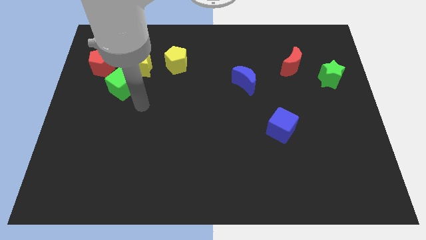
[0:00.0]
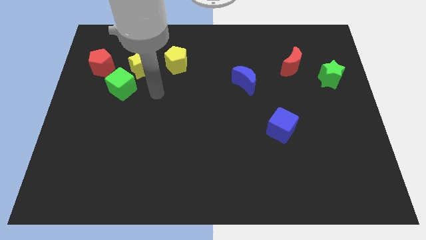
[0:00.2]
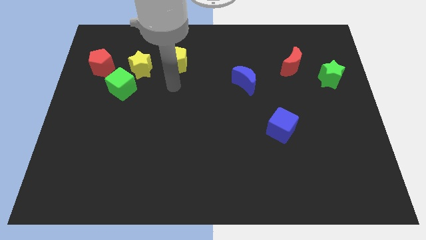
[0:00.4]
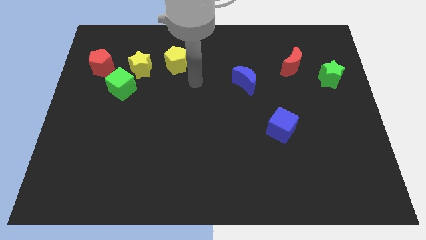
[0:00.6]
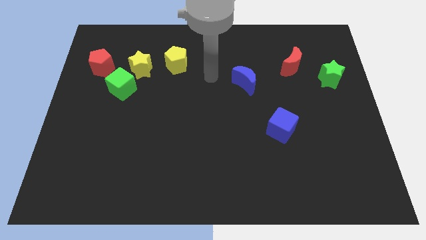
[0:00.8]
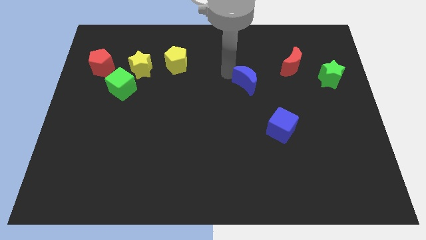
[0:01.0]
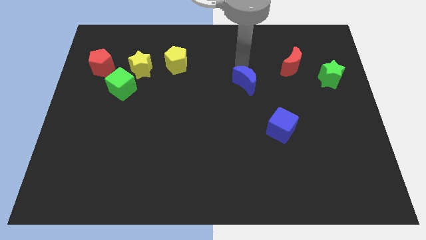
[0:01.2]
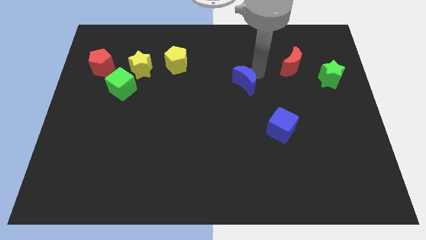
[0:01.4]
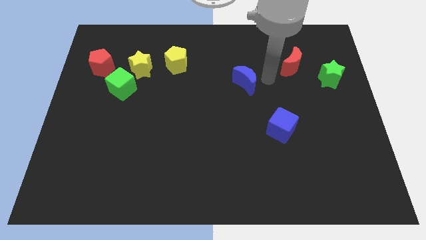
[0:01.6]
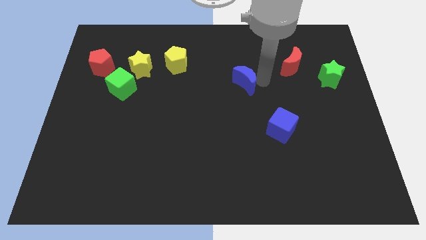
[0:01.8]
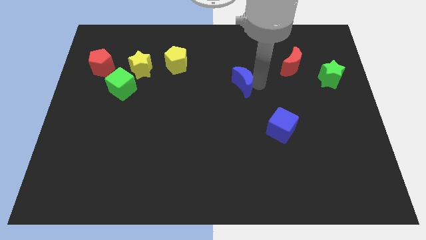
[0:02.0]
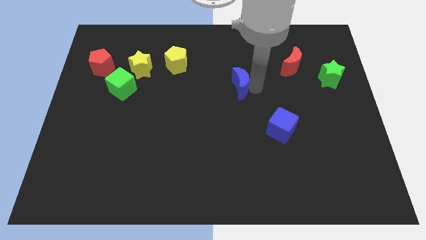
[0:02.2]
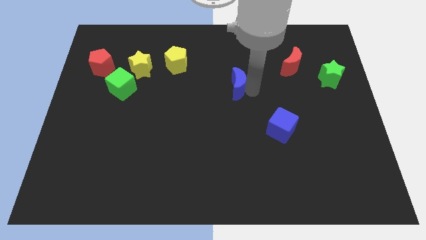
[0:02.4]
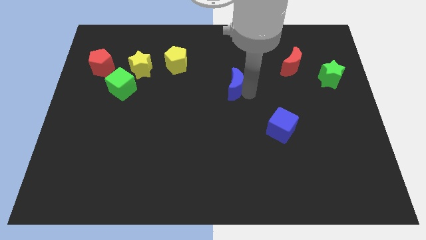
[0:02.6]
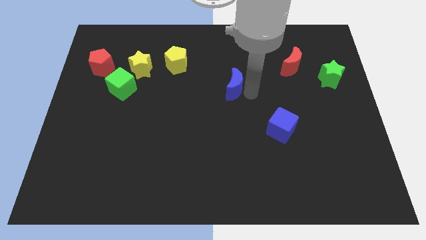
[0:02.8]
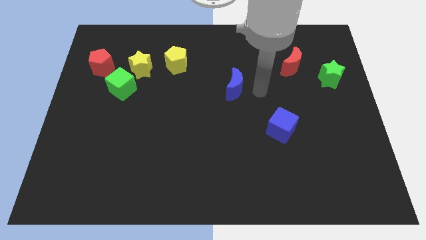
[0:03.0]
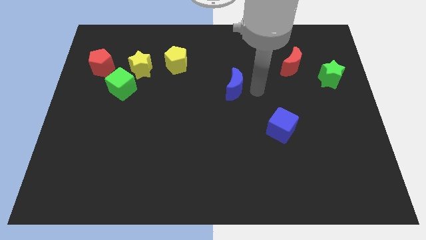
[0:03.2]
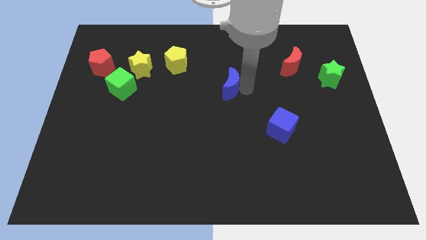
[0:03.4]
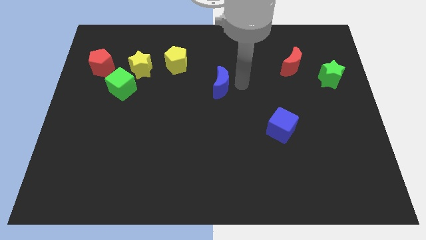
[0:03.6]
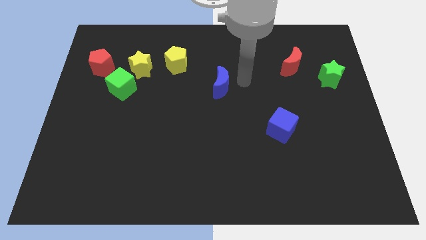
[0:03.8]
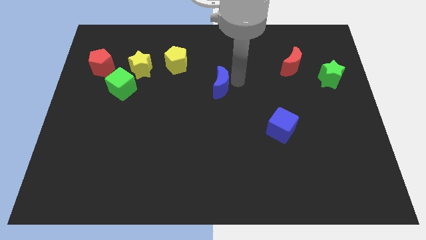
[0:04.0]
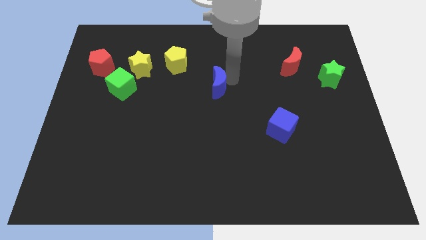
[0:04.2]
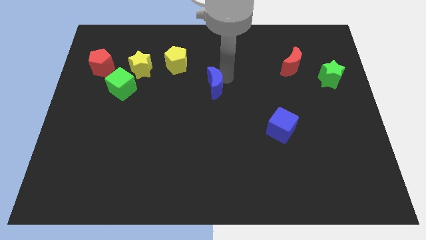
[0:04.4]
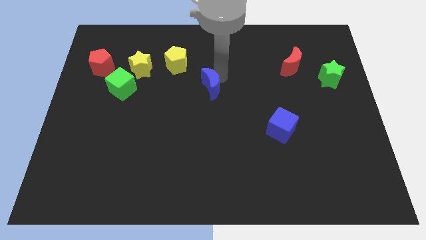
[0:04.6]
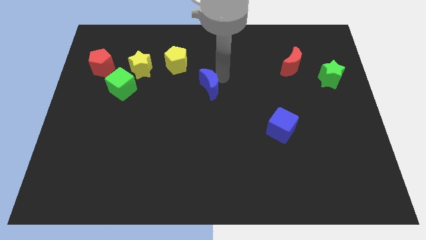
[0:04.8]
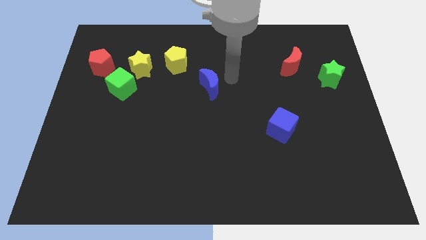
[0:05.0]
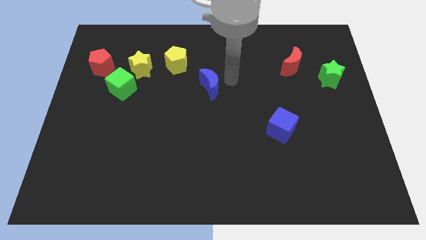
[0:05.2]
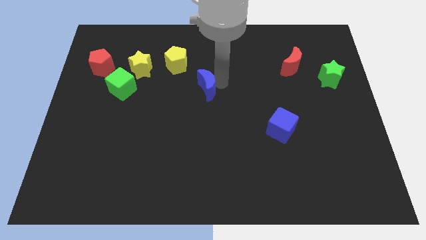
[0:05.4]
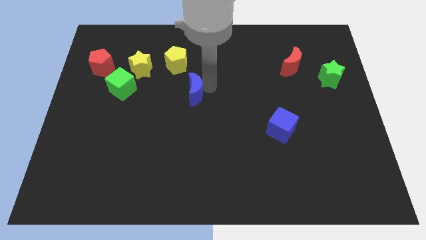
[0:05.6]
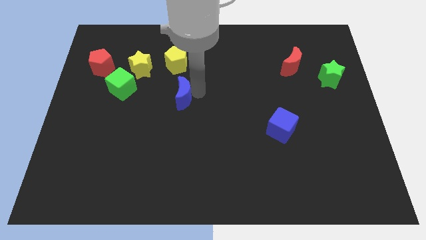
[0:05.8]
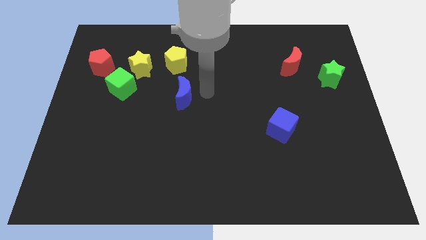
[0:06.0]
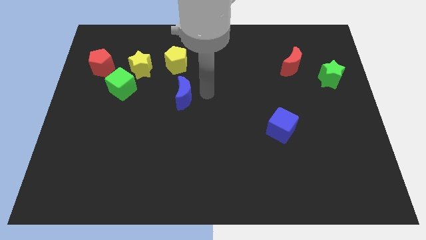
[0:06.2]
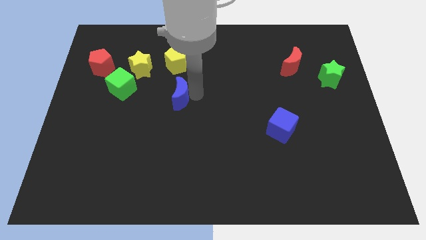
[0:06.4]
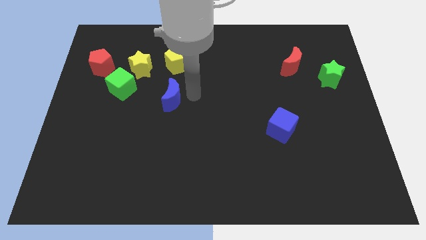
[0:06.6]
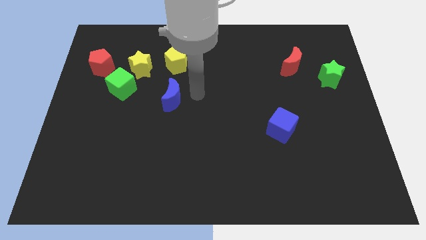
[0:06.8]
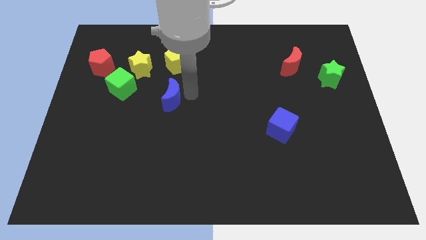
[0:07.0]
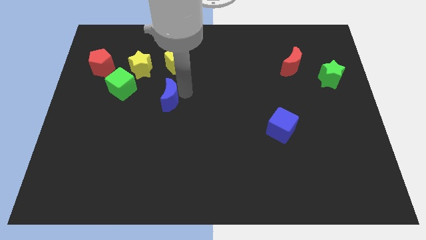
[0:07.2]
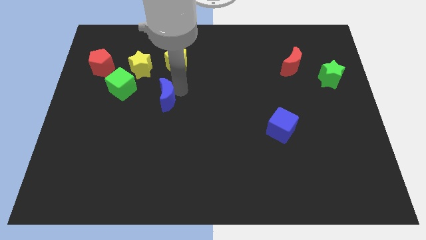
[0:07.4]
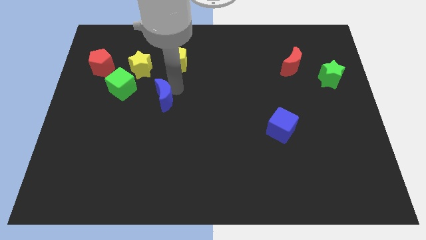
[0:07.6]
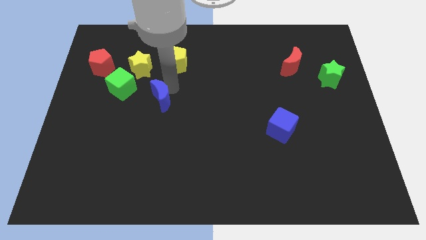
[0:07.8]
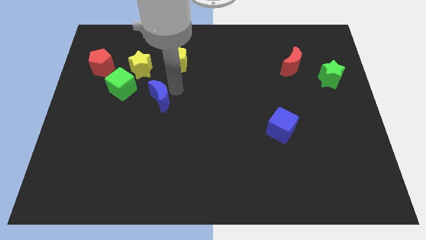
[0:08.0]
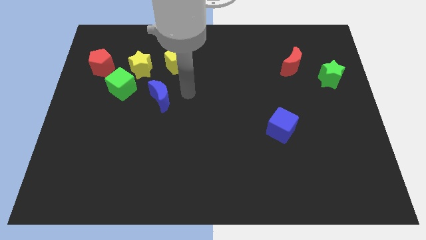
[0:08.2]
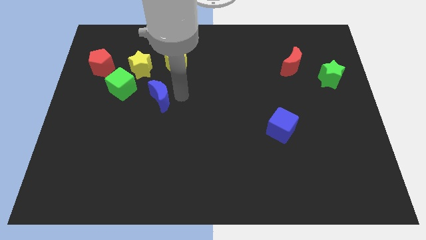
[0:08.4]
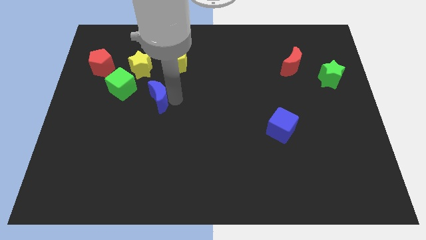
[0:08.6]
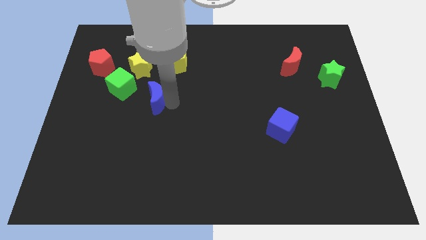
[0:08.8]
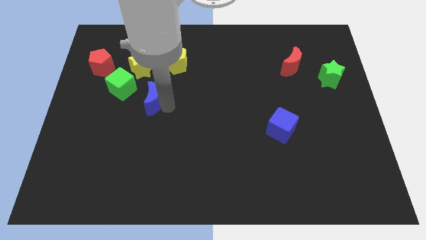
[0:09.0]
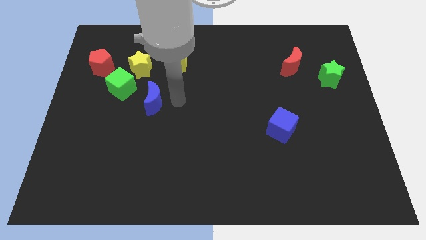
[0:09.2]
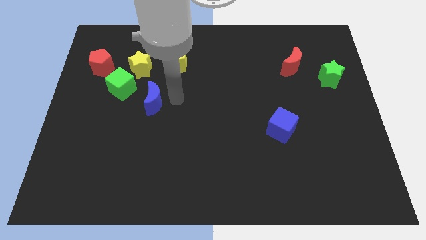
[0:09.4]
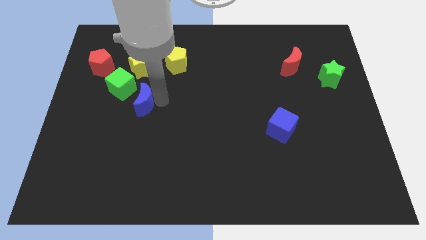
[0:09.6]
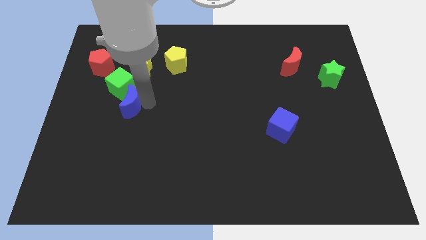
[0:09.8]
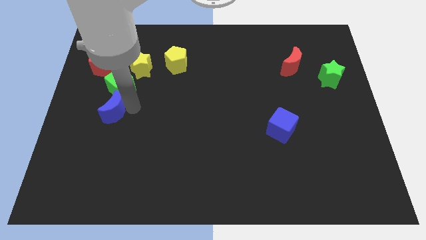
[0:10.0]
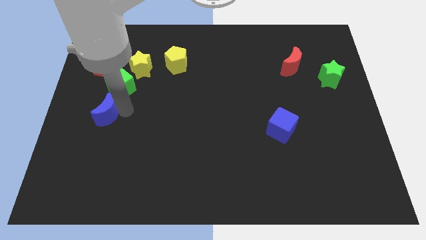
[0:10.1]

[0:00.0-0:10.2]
push the blue moon diagonally down and to the left of the green cube

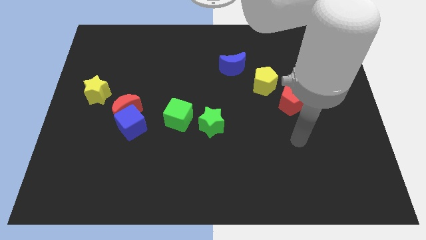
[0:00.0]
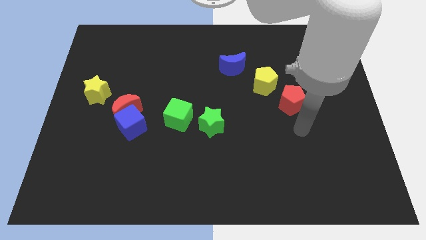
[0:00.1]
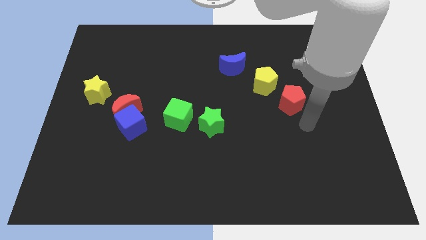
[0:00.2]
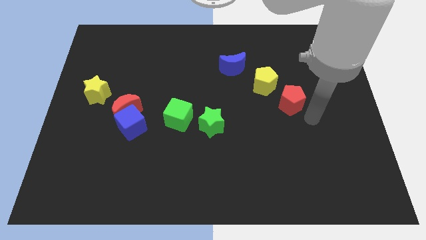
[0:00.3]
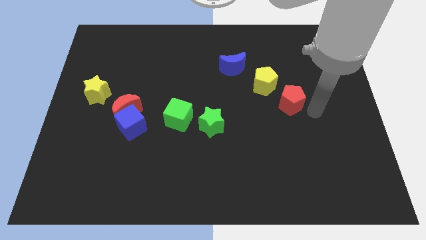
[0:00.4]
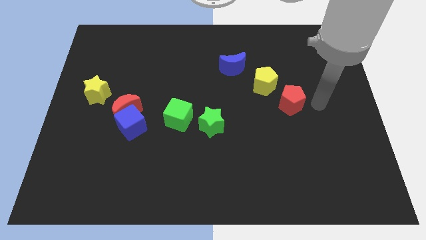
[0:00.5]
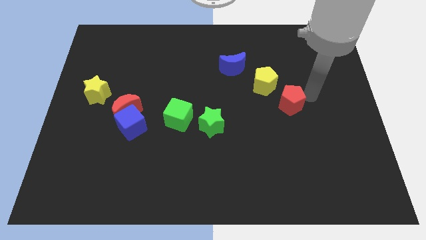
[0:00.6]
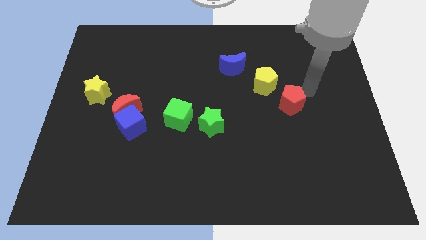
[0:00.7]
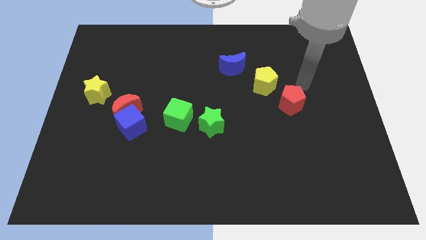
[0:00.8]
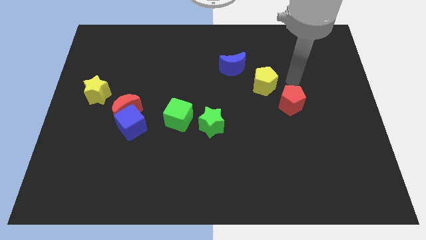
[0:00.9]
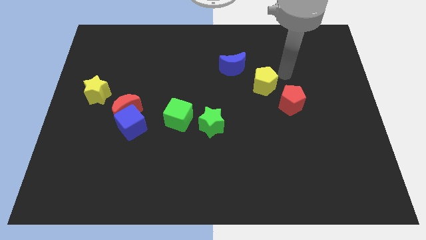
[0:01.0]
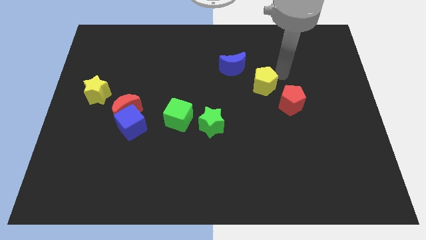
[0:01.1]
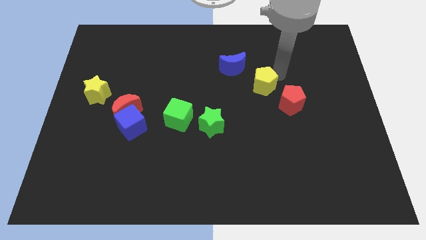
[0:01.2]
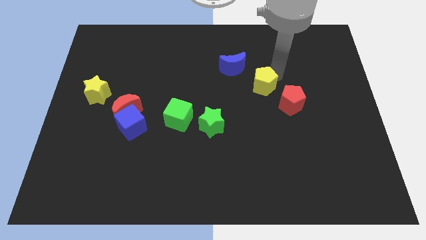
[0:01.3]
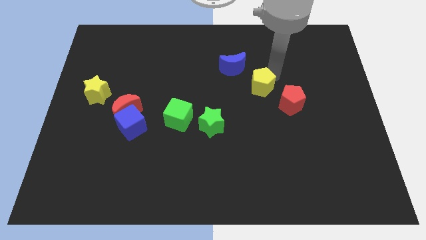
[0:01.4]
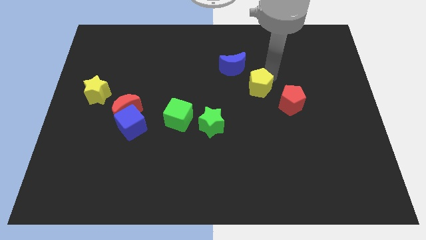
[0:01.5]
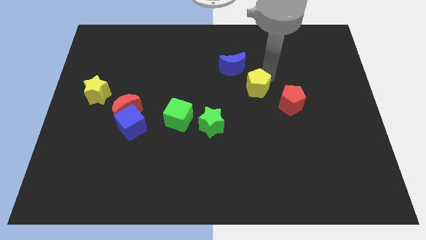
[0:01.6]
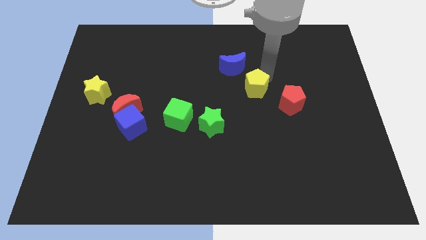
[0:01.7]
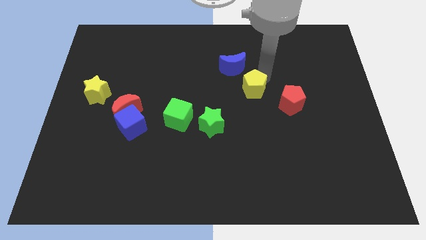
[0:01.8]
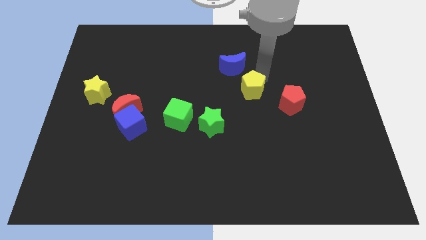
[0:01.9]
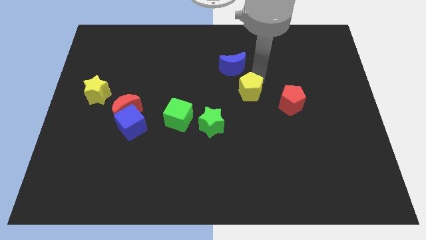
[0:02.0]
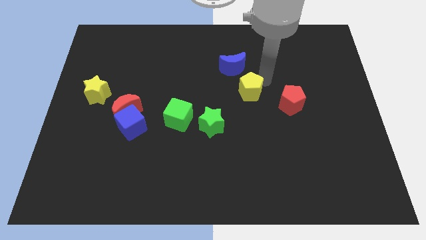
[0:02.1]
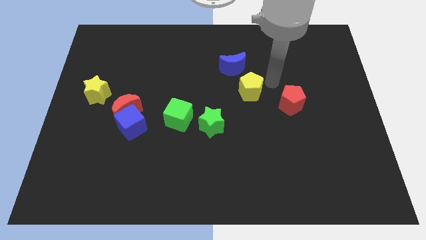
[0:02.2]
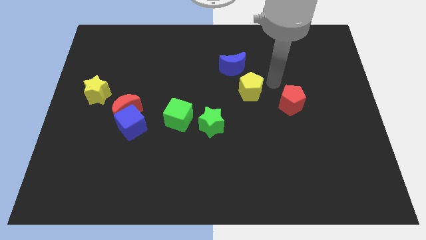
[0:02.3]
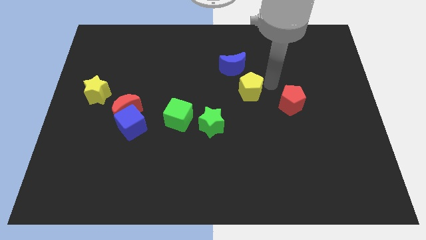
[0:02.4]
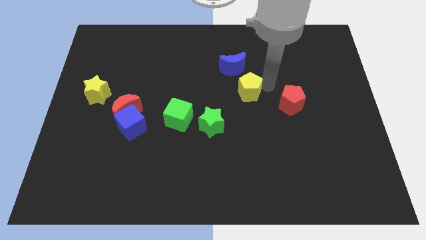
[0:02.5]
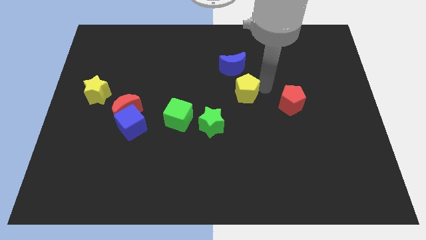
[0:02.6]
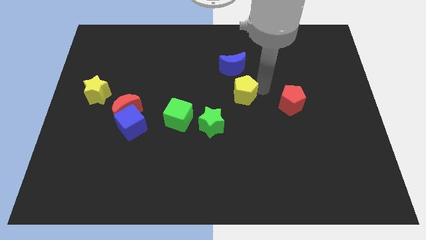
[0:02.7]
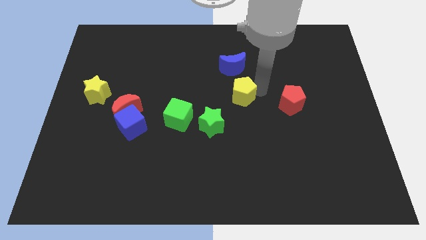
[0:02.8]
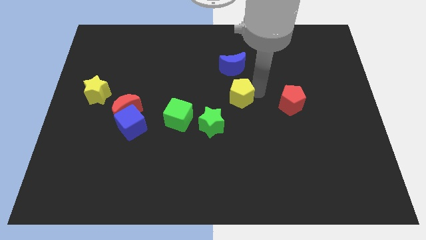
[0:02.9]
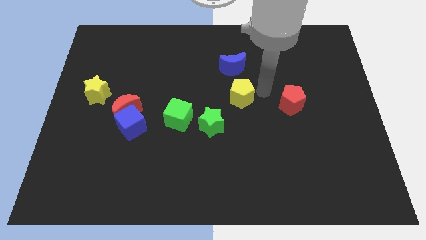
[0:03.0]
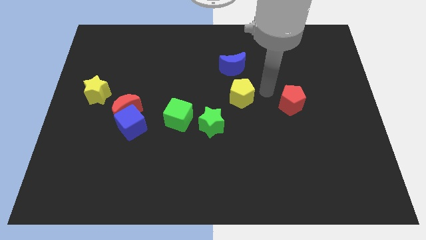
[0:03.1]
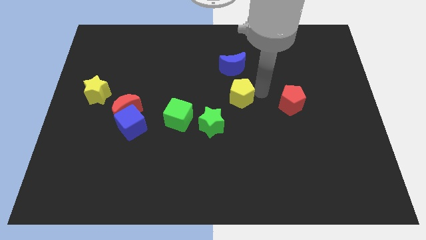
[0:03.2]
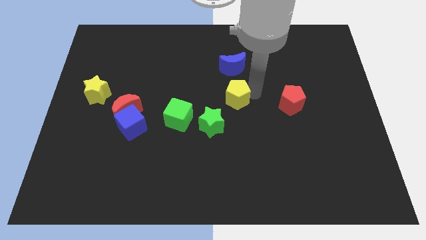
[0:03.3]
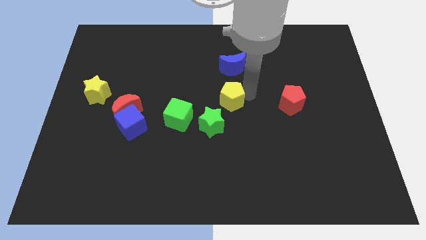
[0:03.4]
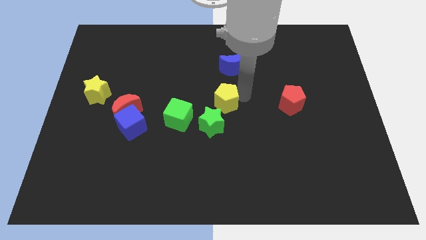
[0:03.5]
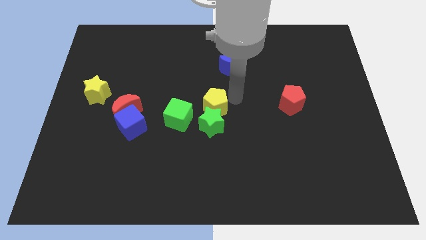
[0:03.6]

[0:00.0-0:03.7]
put the yellow pentagon diagonally up and to the left of the green star
